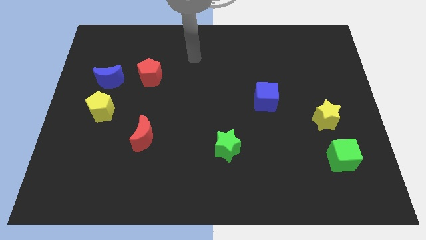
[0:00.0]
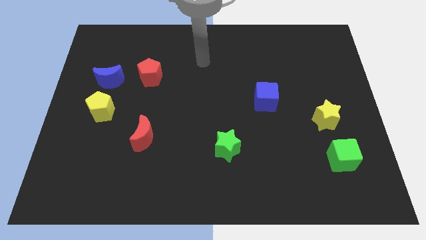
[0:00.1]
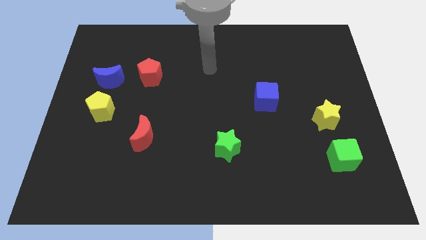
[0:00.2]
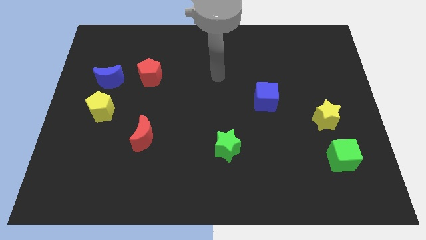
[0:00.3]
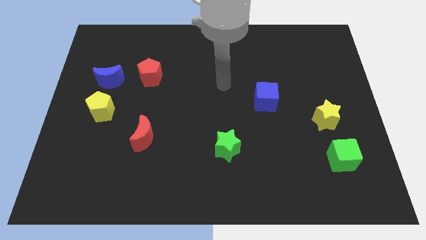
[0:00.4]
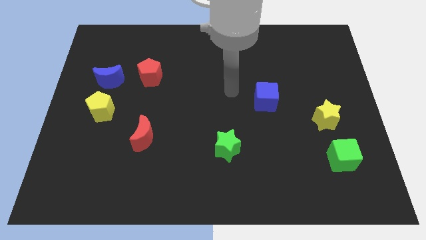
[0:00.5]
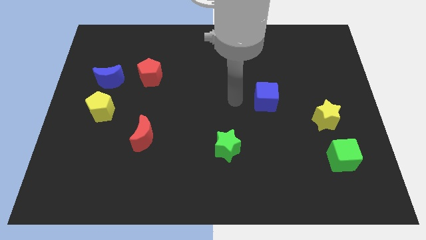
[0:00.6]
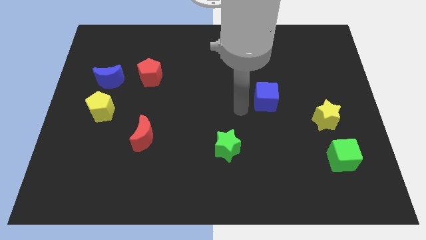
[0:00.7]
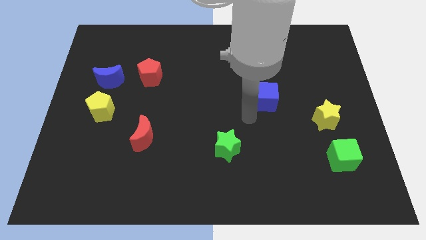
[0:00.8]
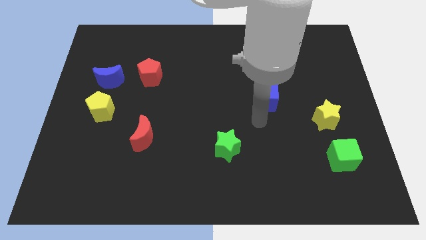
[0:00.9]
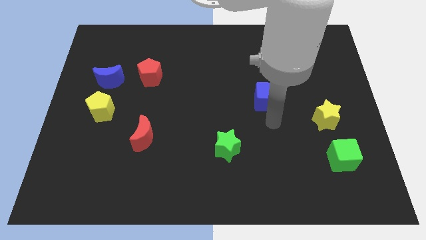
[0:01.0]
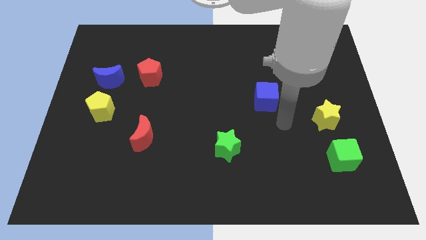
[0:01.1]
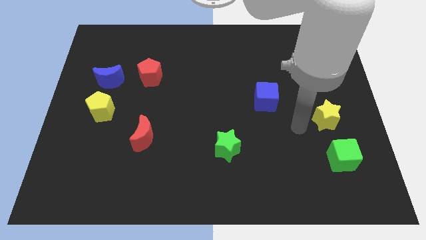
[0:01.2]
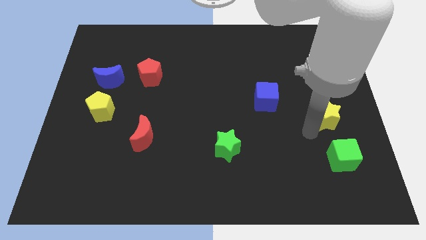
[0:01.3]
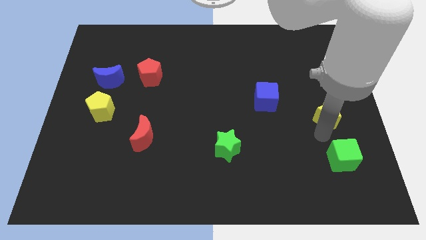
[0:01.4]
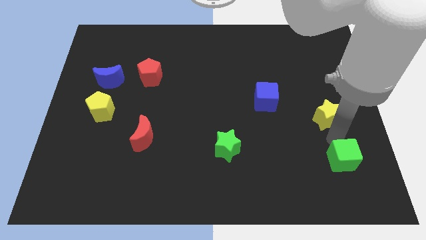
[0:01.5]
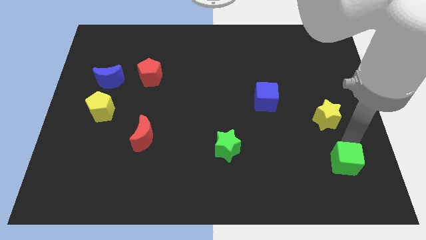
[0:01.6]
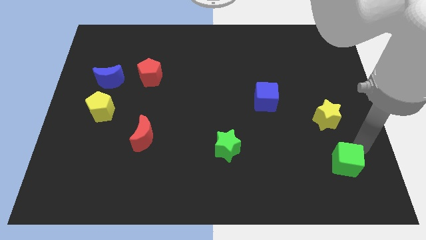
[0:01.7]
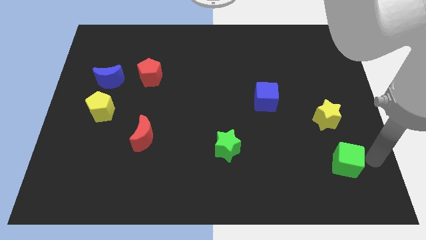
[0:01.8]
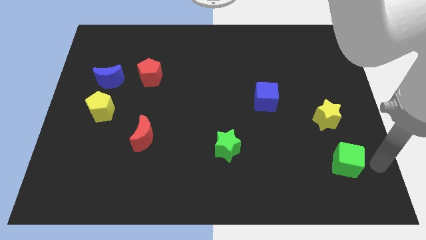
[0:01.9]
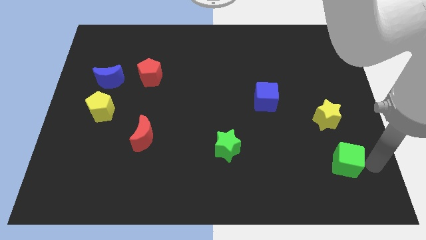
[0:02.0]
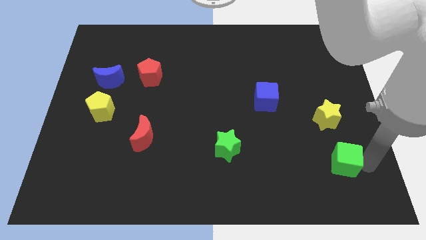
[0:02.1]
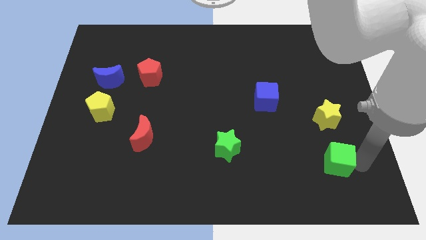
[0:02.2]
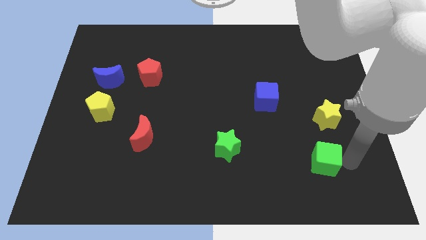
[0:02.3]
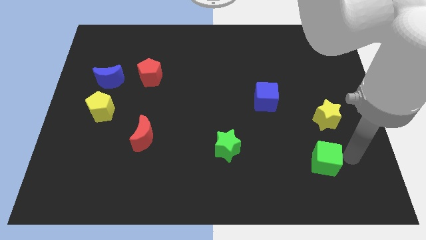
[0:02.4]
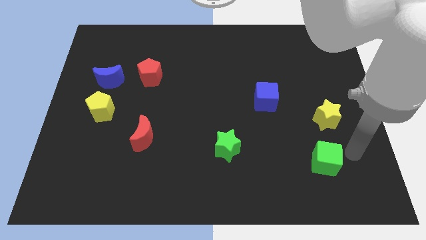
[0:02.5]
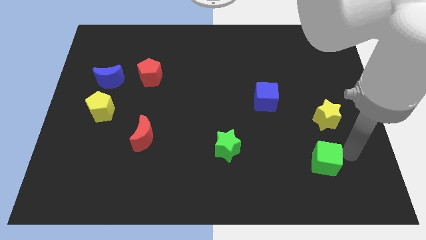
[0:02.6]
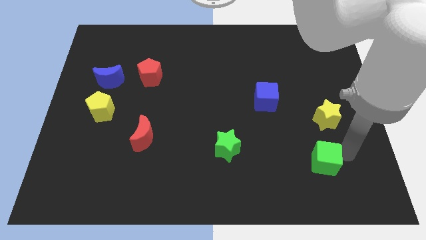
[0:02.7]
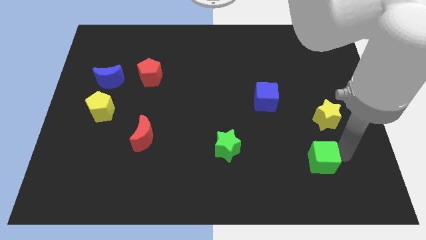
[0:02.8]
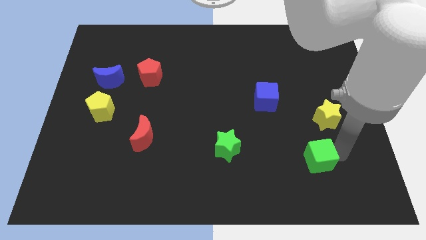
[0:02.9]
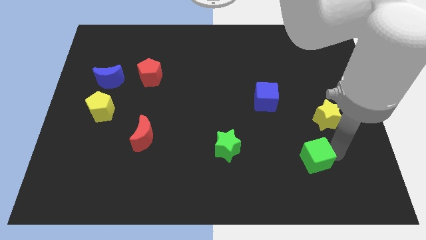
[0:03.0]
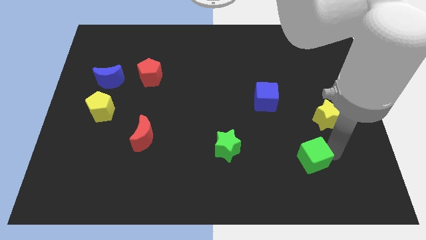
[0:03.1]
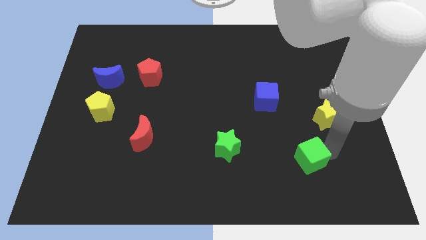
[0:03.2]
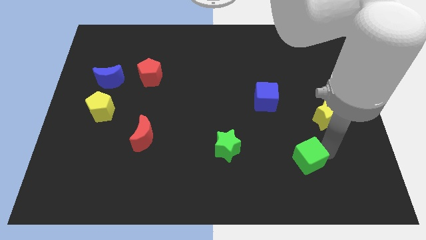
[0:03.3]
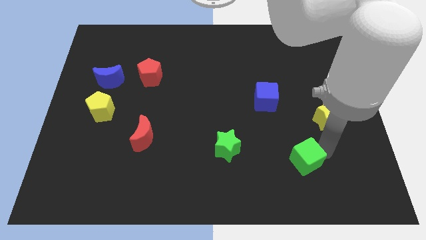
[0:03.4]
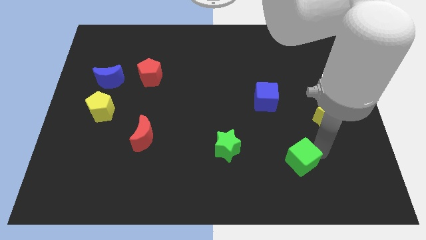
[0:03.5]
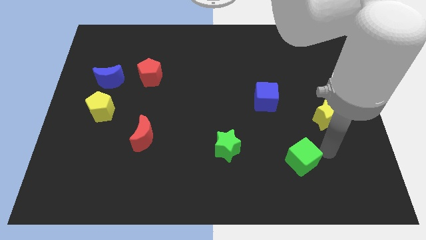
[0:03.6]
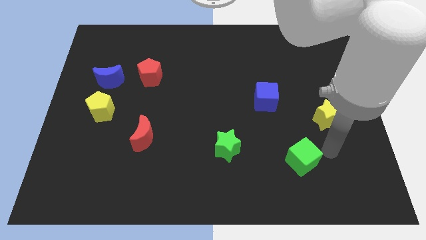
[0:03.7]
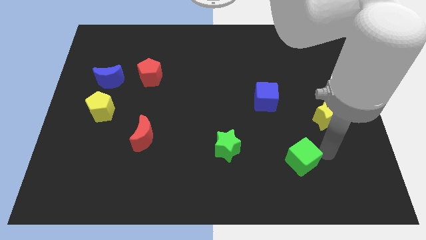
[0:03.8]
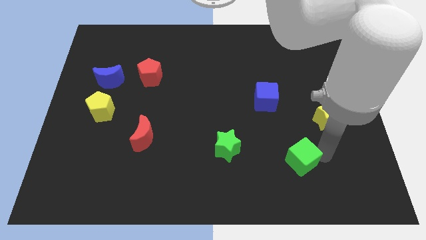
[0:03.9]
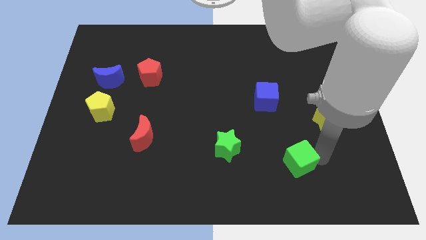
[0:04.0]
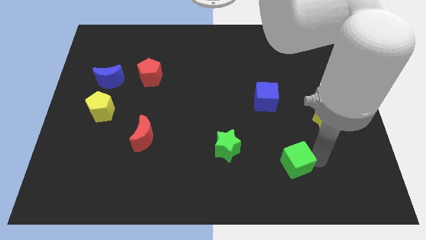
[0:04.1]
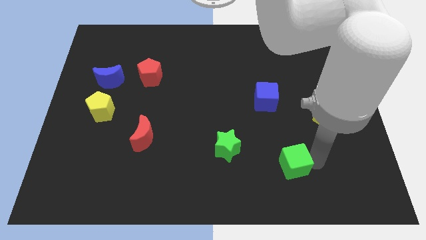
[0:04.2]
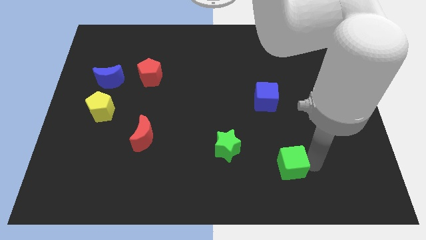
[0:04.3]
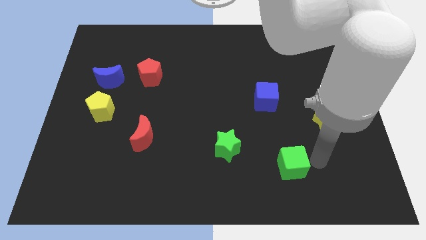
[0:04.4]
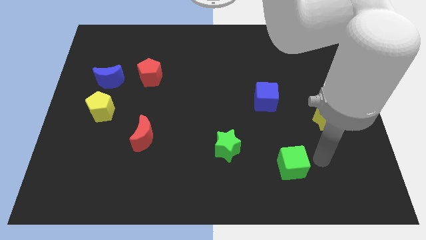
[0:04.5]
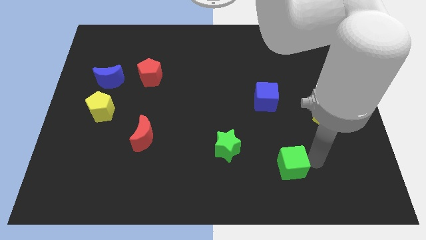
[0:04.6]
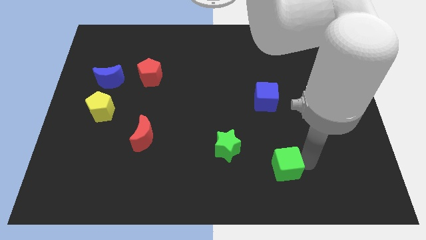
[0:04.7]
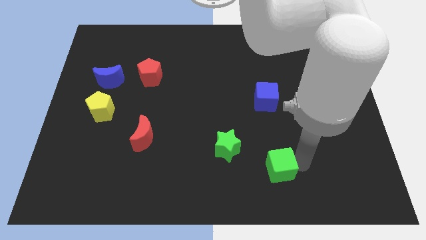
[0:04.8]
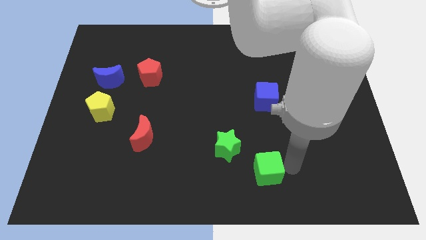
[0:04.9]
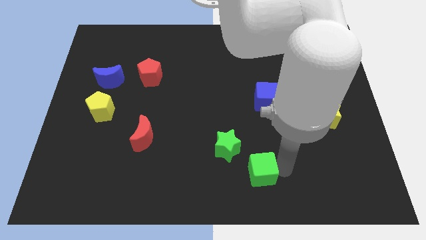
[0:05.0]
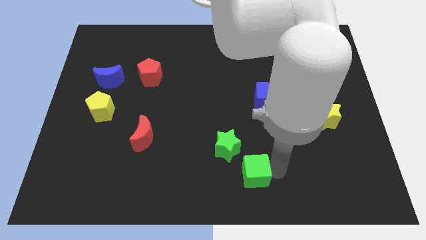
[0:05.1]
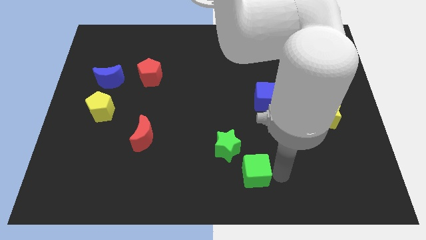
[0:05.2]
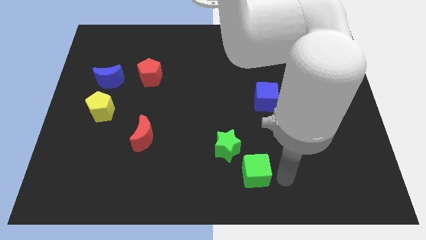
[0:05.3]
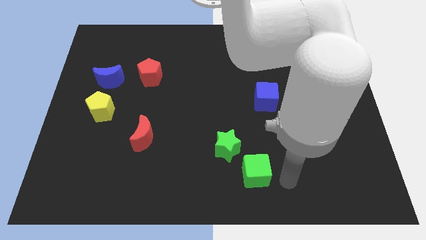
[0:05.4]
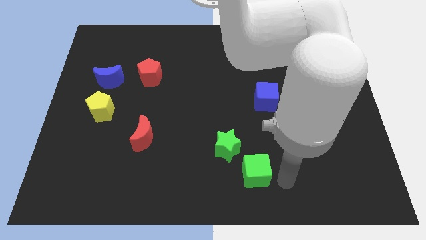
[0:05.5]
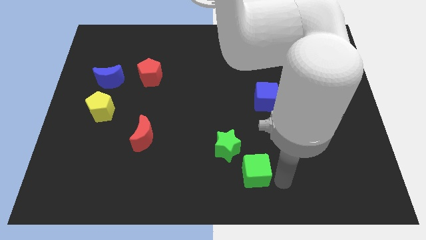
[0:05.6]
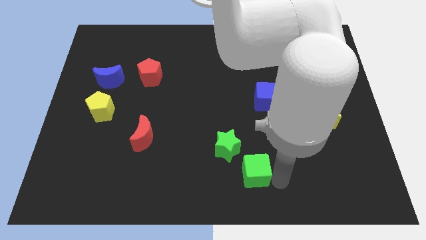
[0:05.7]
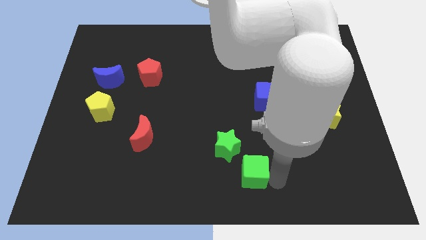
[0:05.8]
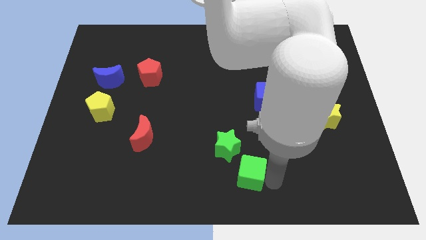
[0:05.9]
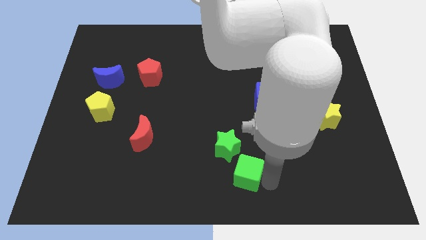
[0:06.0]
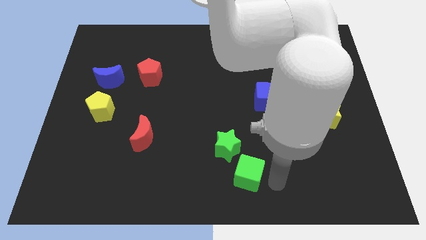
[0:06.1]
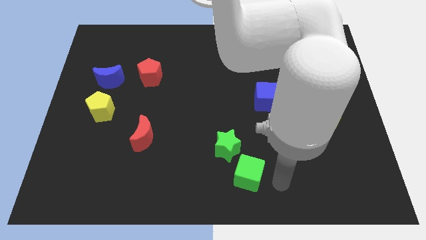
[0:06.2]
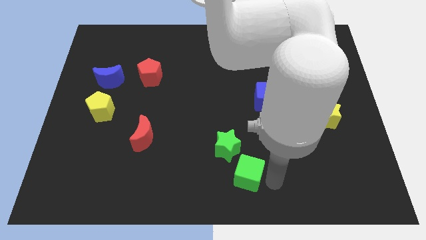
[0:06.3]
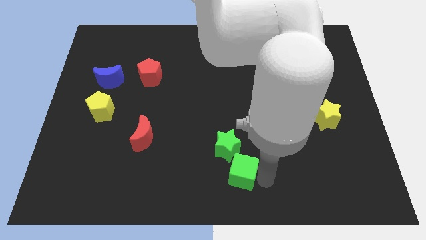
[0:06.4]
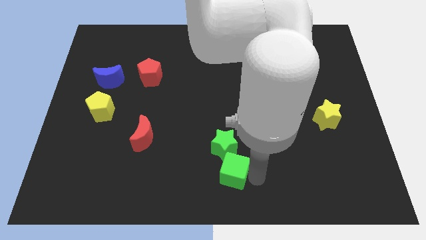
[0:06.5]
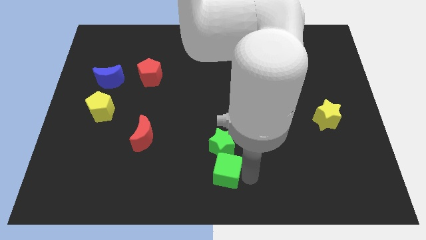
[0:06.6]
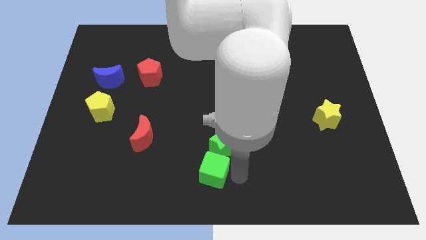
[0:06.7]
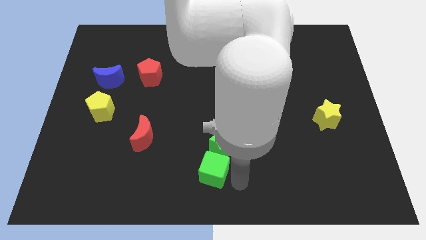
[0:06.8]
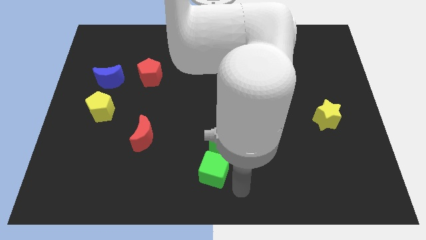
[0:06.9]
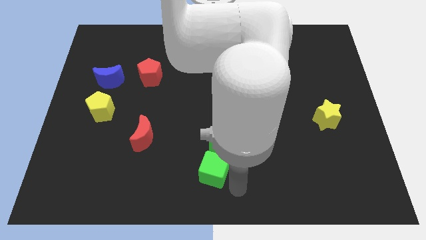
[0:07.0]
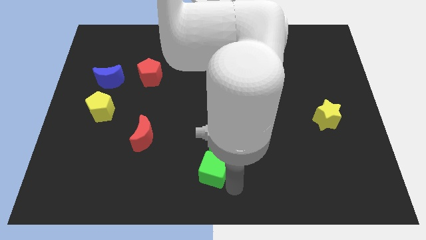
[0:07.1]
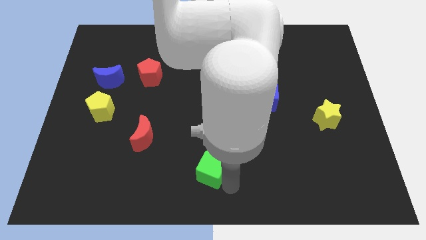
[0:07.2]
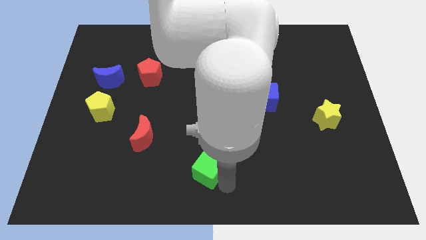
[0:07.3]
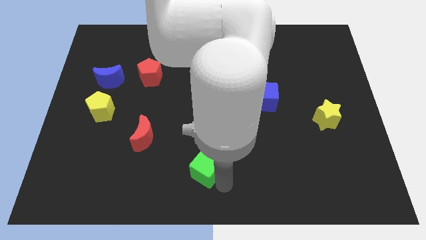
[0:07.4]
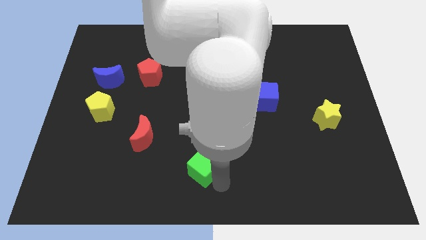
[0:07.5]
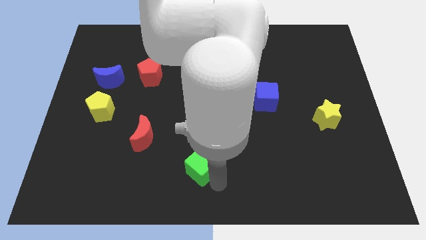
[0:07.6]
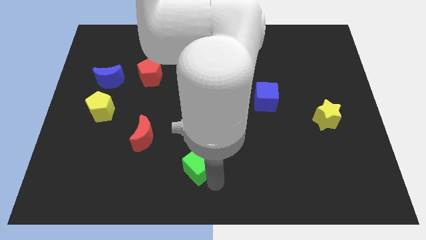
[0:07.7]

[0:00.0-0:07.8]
move the green cube just left of the green star
